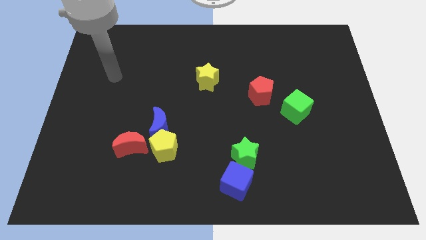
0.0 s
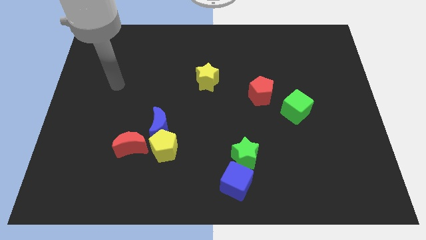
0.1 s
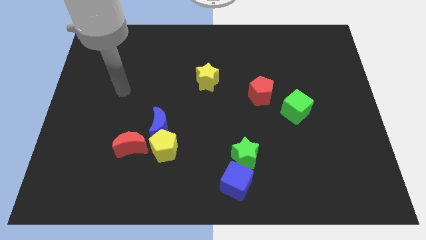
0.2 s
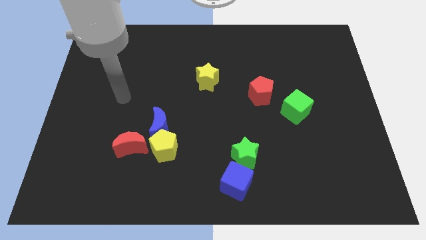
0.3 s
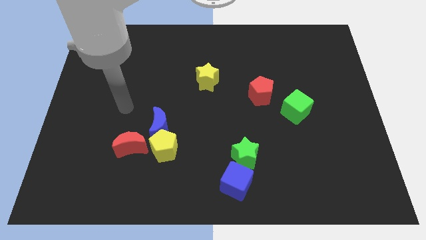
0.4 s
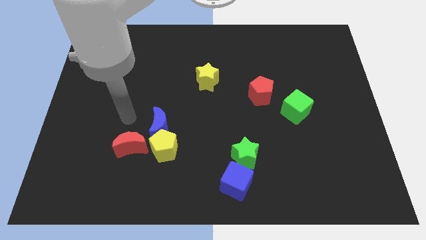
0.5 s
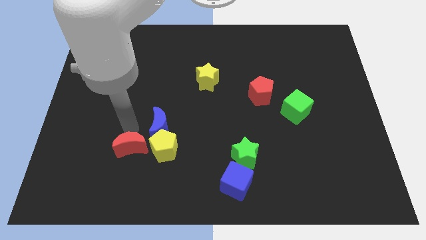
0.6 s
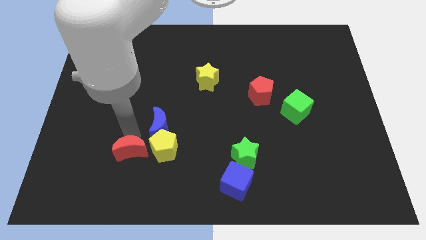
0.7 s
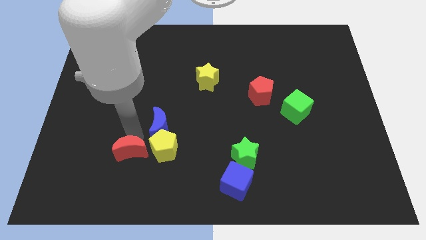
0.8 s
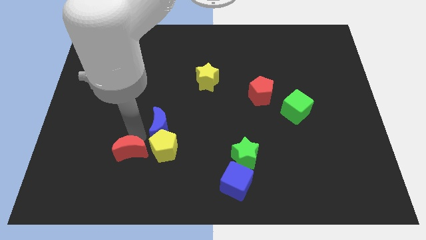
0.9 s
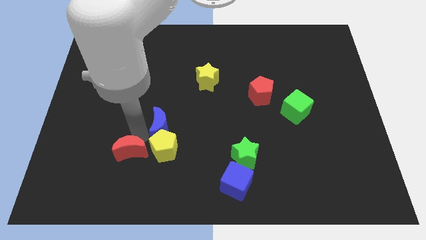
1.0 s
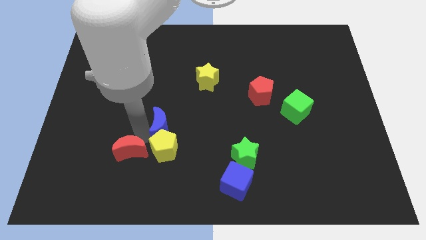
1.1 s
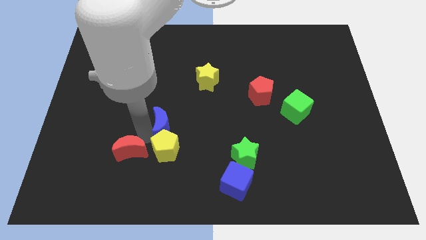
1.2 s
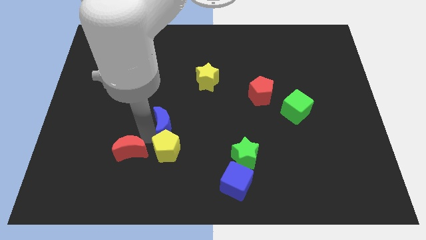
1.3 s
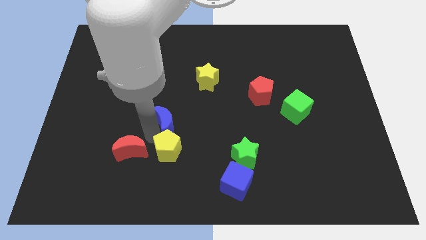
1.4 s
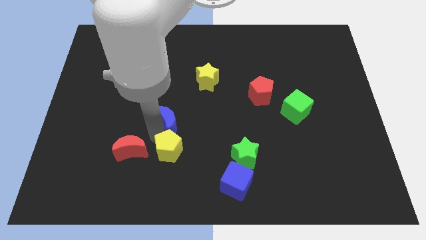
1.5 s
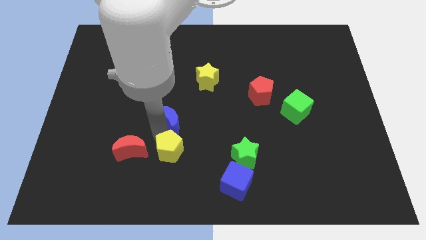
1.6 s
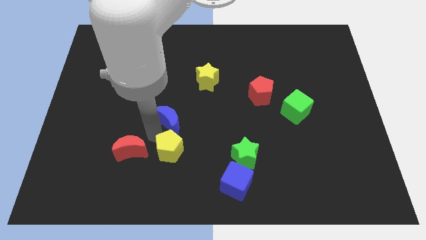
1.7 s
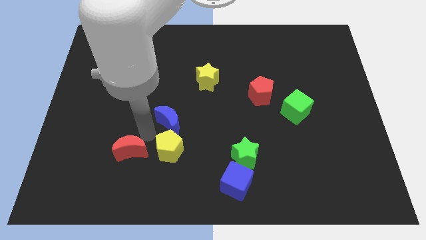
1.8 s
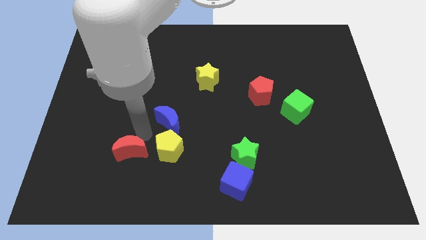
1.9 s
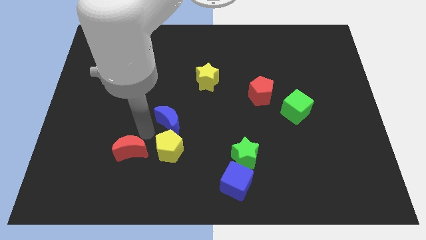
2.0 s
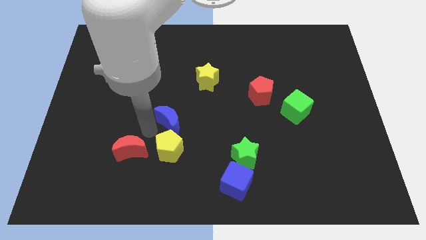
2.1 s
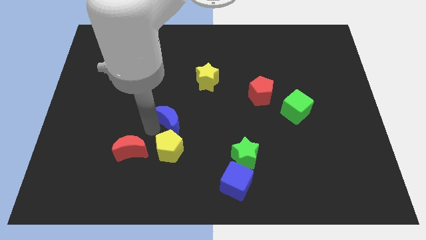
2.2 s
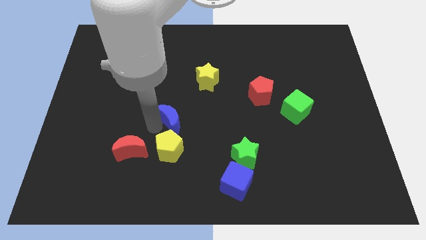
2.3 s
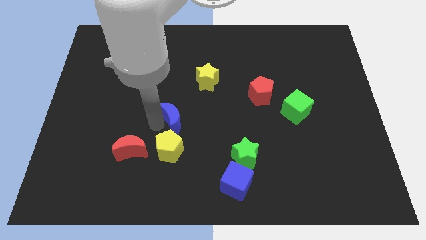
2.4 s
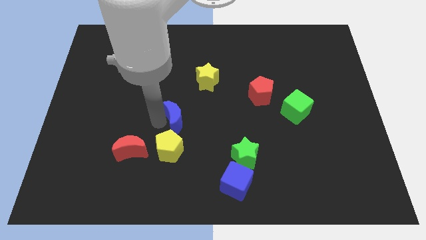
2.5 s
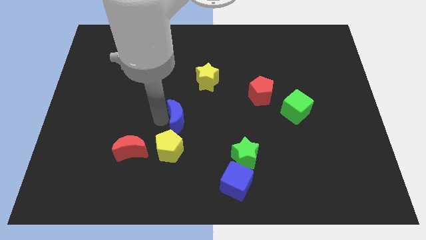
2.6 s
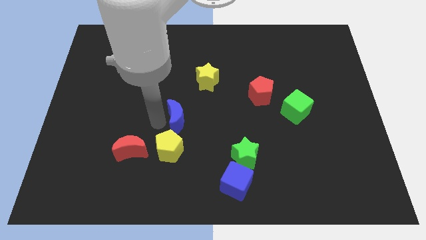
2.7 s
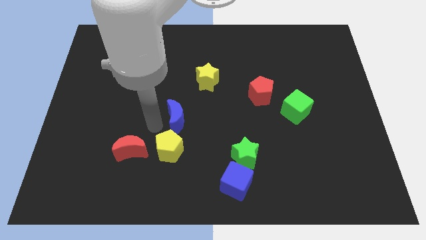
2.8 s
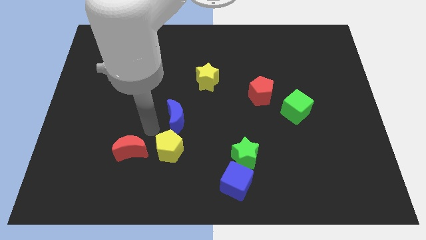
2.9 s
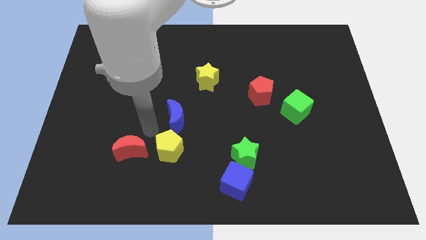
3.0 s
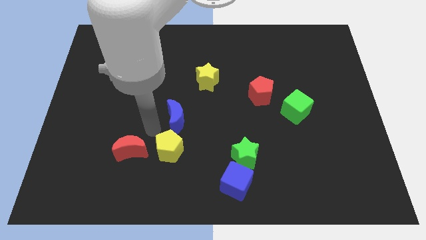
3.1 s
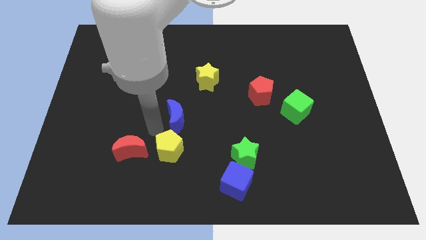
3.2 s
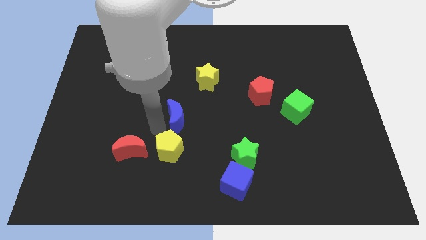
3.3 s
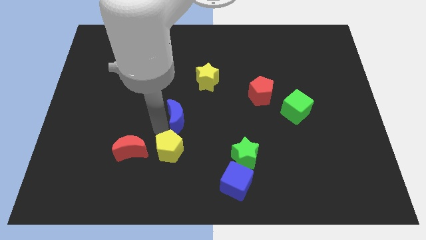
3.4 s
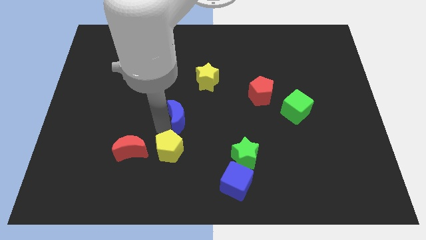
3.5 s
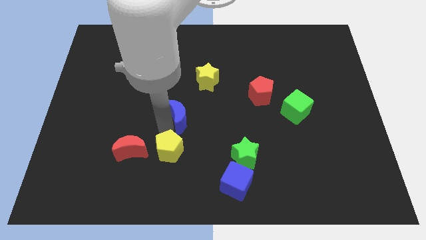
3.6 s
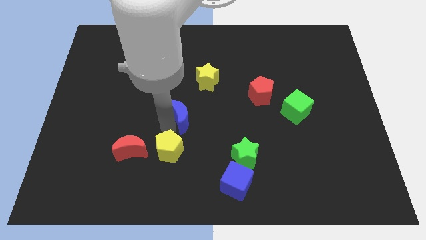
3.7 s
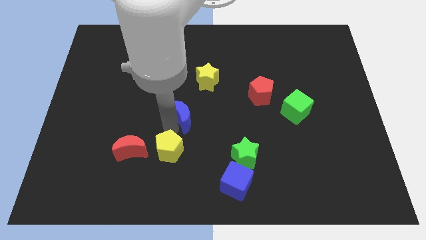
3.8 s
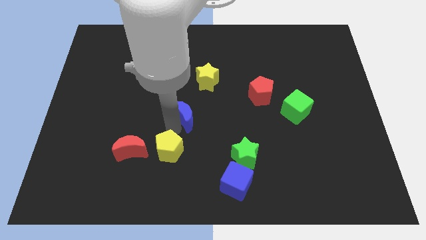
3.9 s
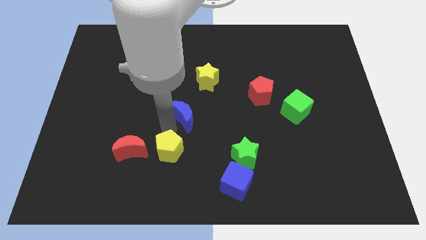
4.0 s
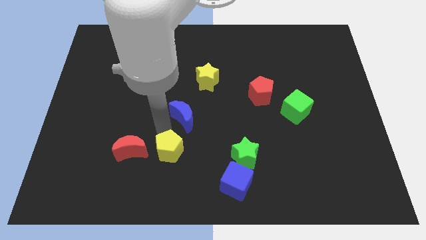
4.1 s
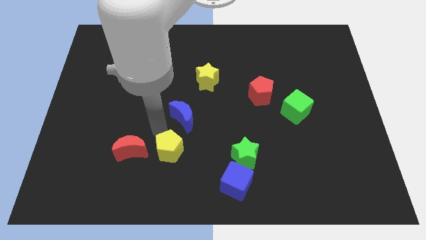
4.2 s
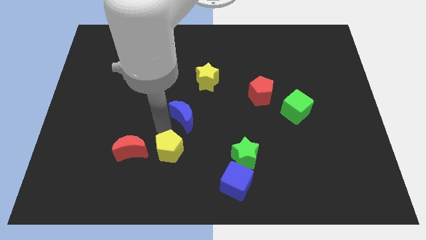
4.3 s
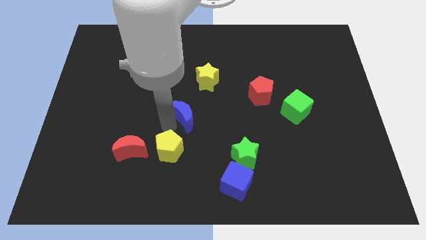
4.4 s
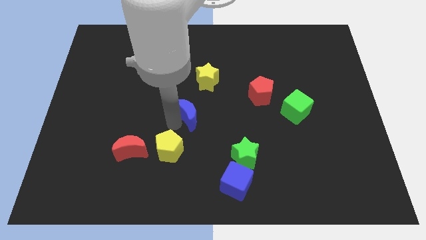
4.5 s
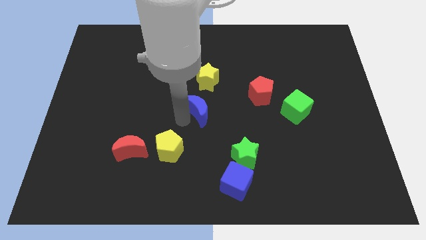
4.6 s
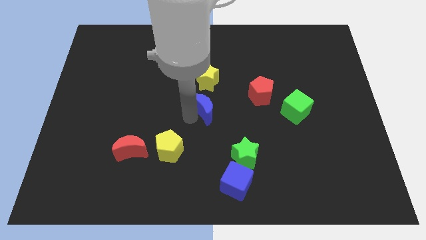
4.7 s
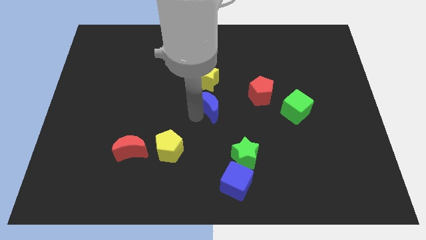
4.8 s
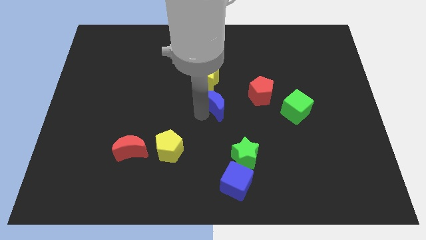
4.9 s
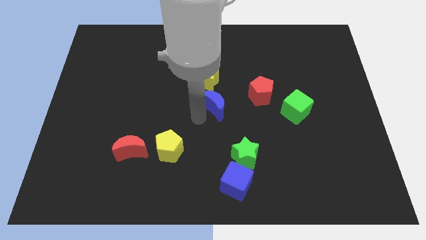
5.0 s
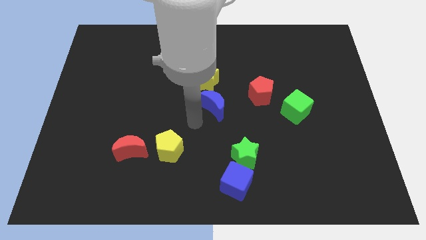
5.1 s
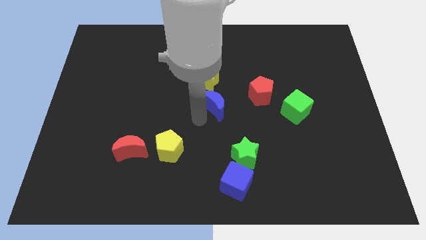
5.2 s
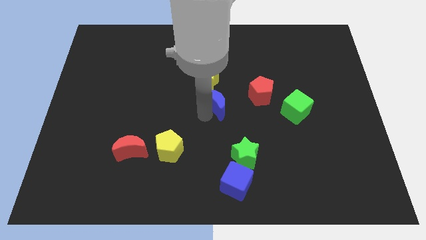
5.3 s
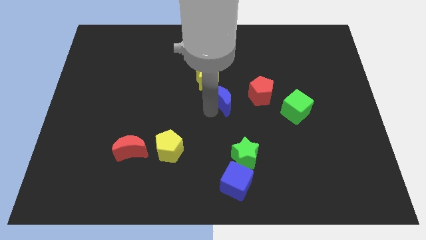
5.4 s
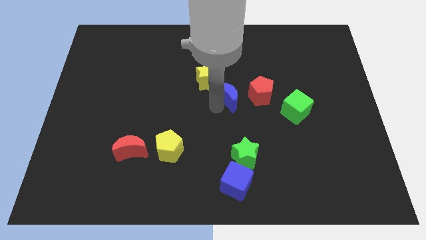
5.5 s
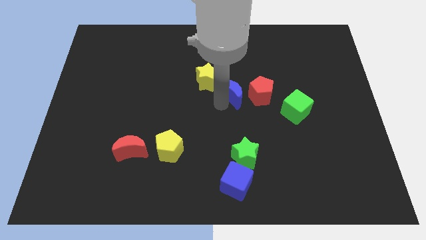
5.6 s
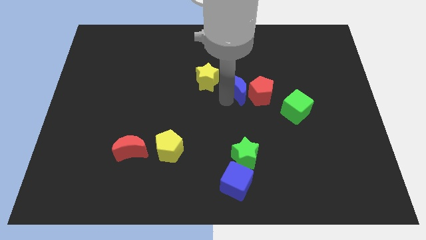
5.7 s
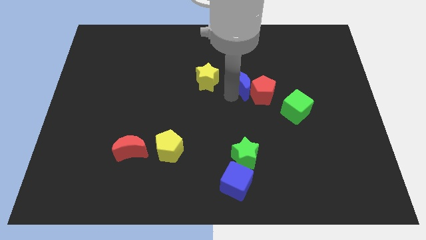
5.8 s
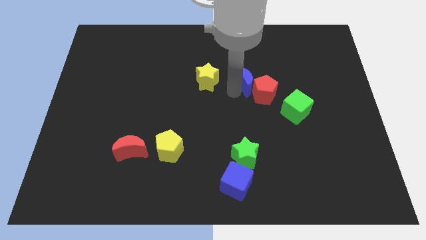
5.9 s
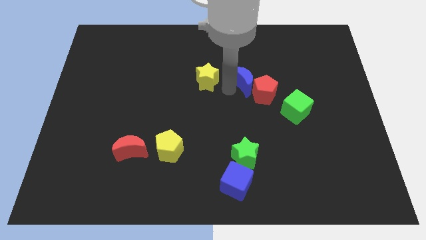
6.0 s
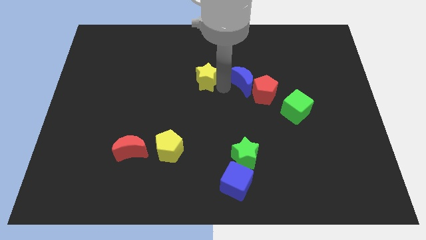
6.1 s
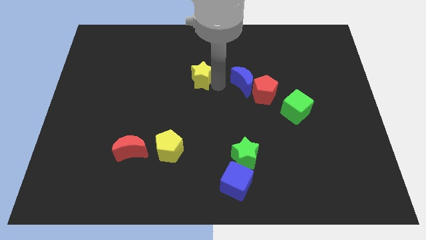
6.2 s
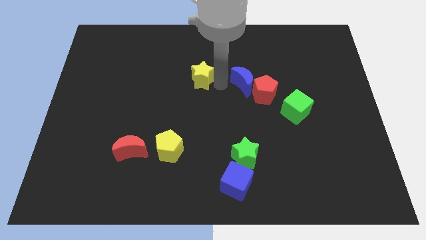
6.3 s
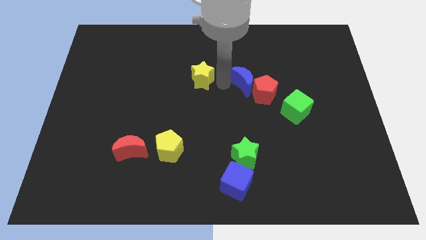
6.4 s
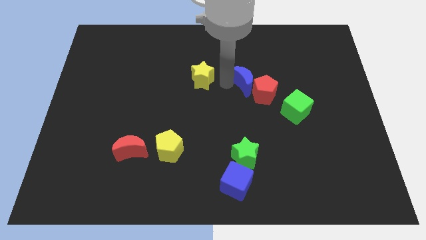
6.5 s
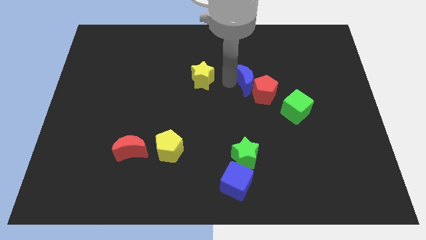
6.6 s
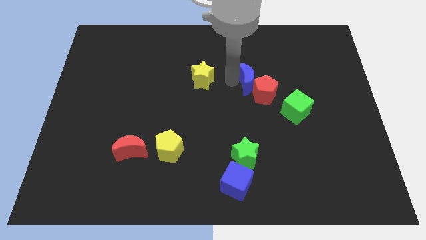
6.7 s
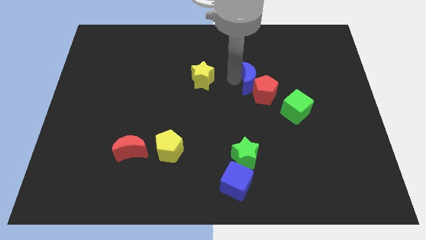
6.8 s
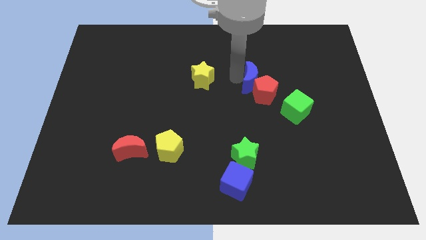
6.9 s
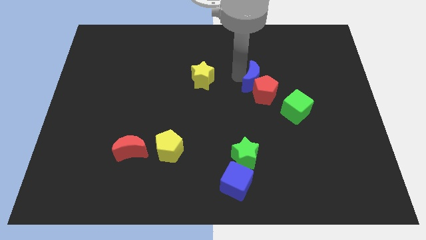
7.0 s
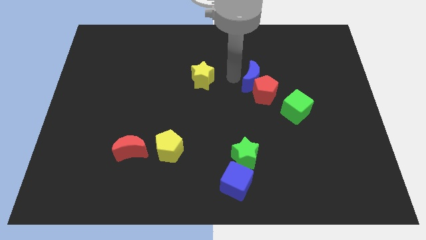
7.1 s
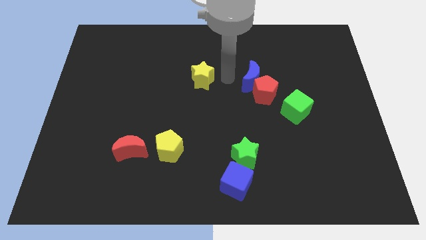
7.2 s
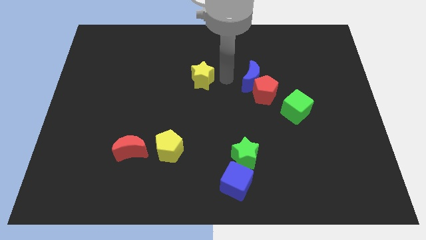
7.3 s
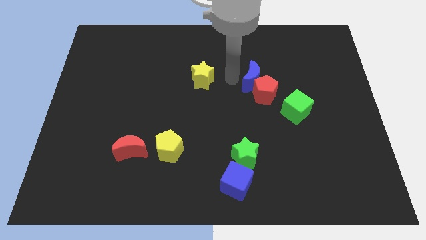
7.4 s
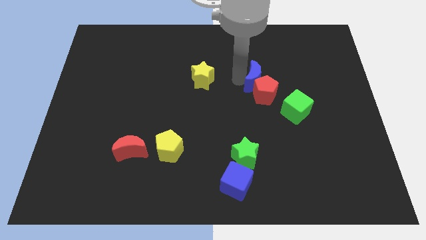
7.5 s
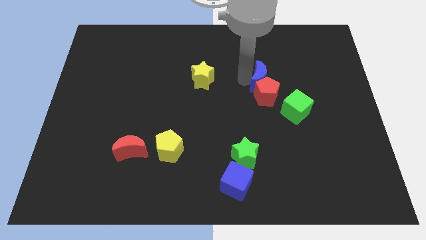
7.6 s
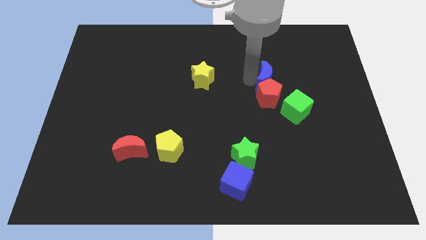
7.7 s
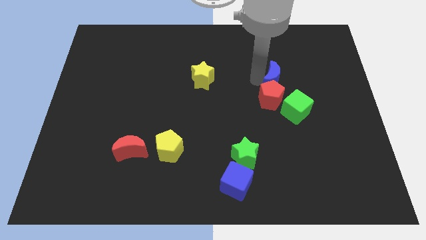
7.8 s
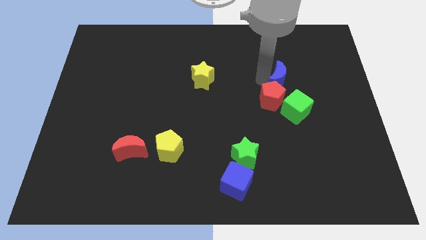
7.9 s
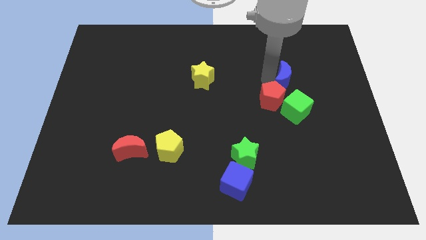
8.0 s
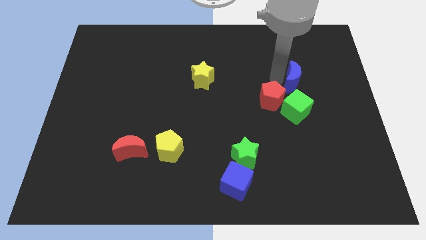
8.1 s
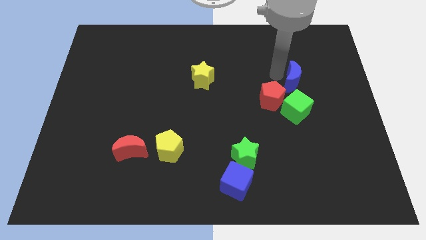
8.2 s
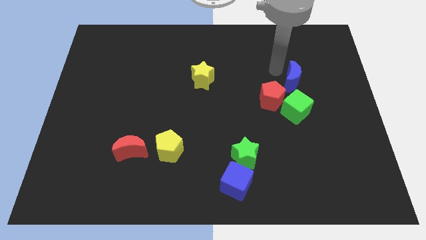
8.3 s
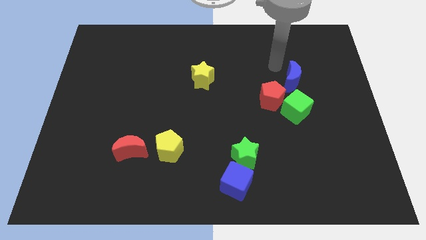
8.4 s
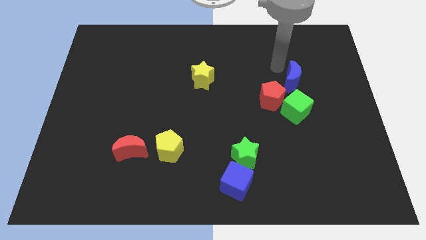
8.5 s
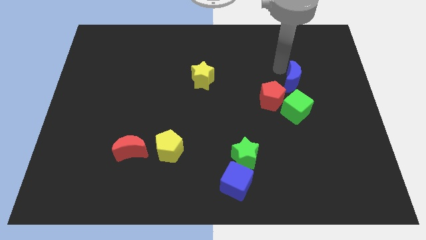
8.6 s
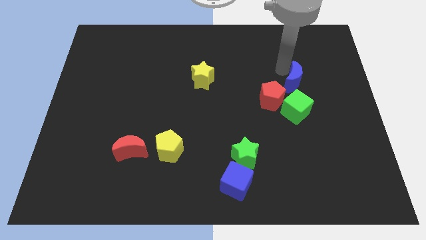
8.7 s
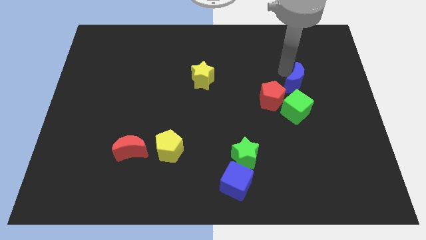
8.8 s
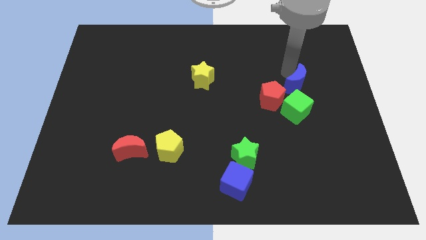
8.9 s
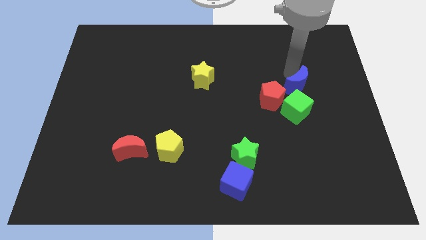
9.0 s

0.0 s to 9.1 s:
put the blue moon just right of the red pentagon
